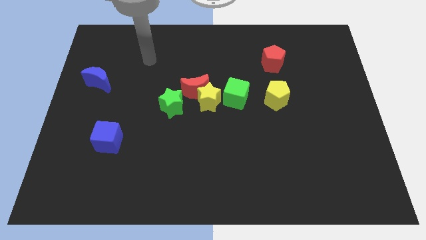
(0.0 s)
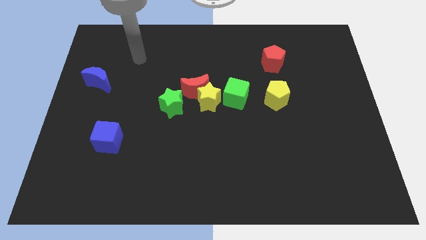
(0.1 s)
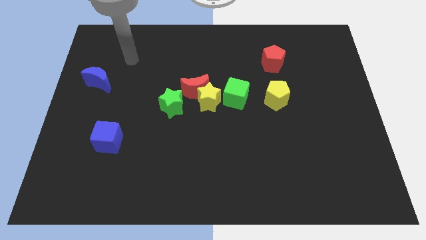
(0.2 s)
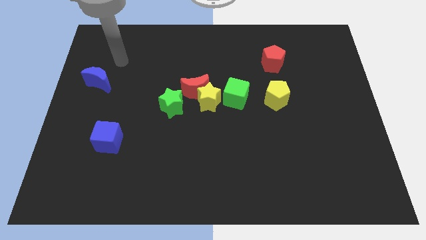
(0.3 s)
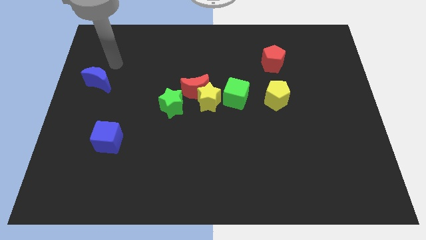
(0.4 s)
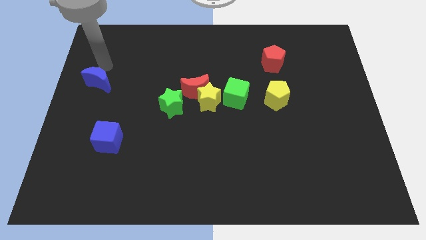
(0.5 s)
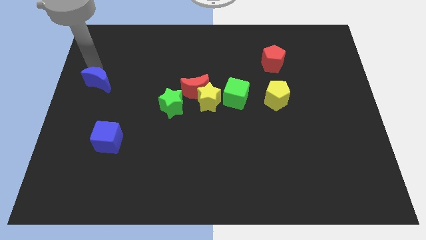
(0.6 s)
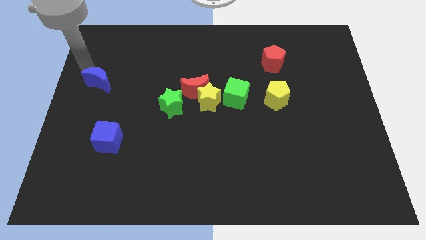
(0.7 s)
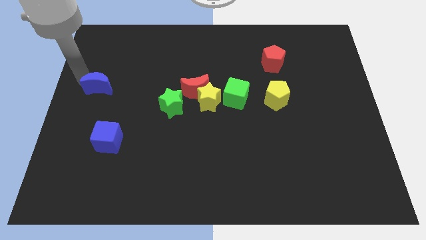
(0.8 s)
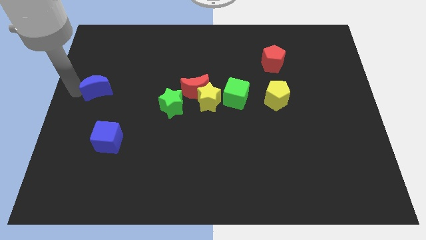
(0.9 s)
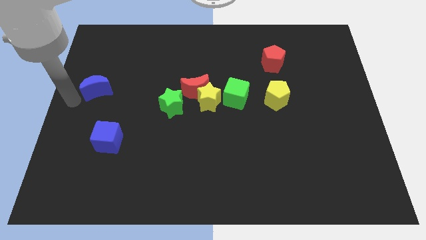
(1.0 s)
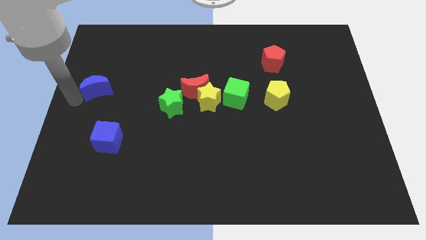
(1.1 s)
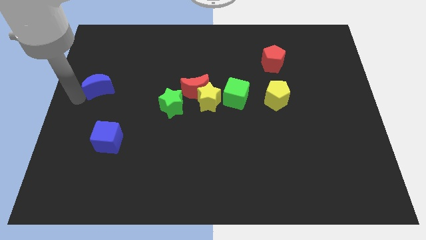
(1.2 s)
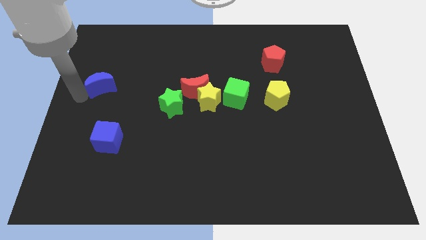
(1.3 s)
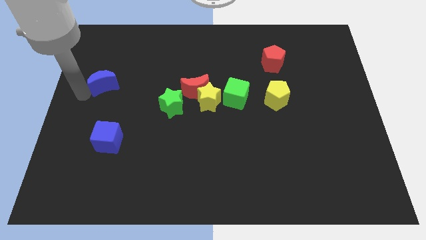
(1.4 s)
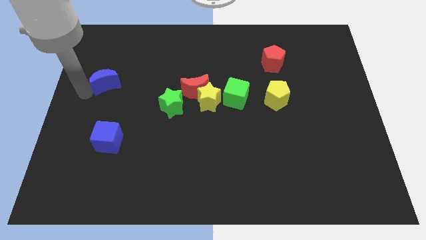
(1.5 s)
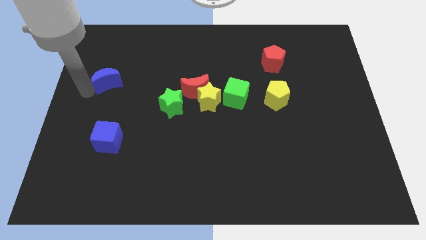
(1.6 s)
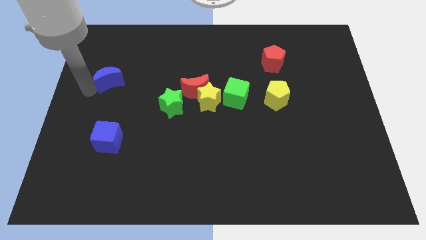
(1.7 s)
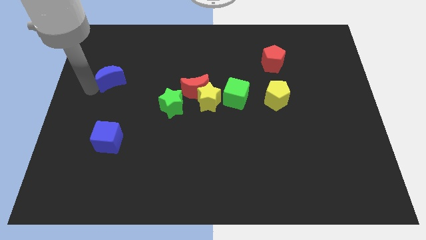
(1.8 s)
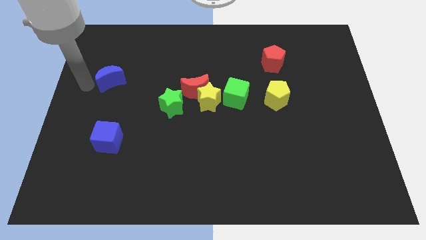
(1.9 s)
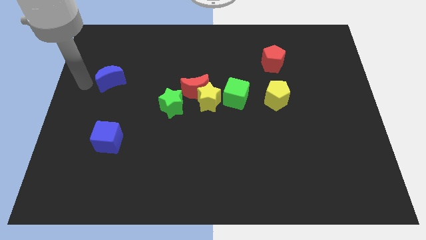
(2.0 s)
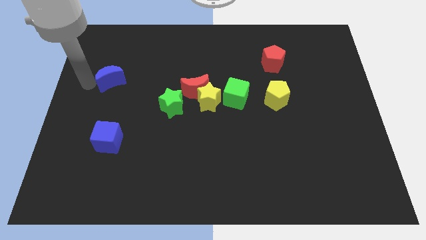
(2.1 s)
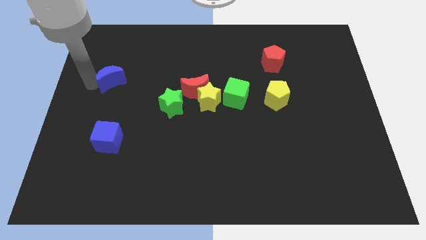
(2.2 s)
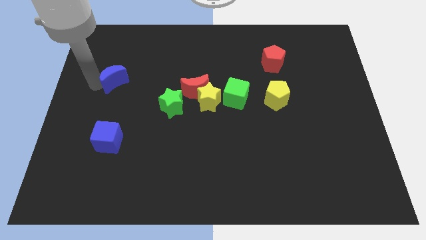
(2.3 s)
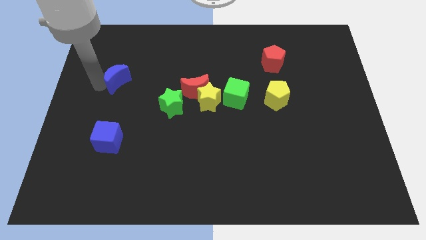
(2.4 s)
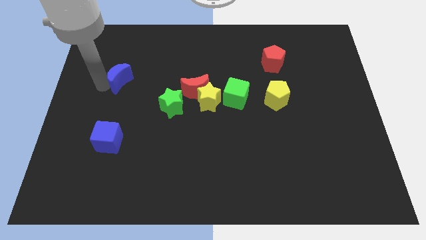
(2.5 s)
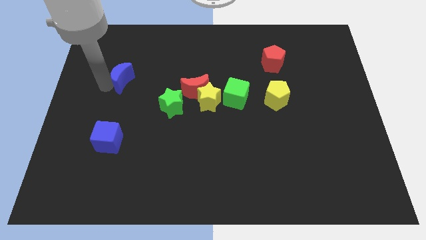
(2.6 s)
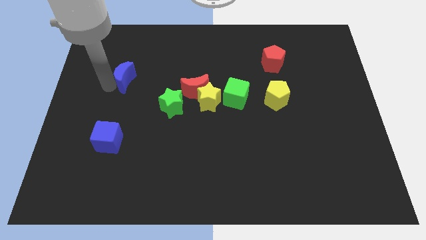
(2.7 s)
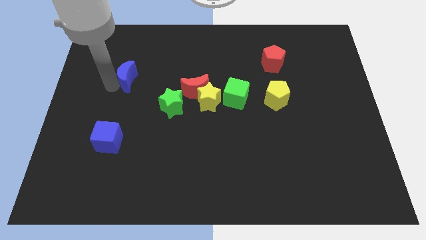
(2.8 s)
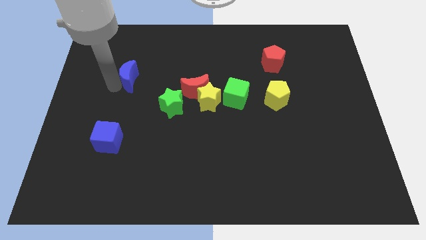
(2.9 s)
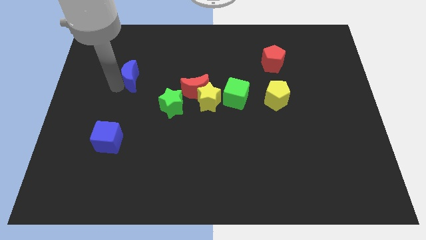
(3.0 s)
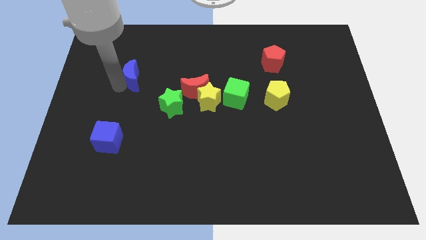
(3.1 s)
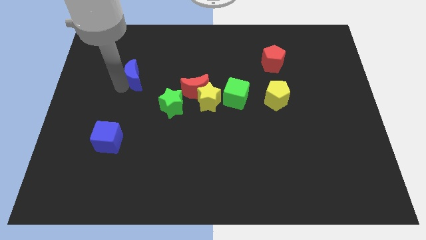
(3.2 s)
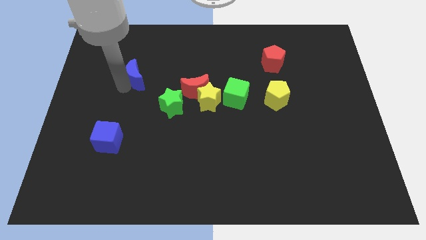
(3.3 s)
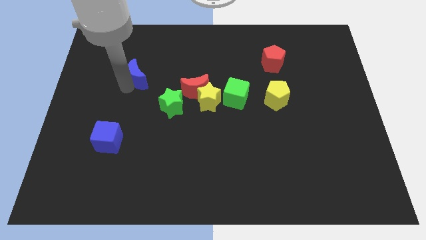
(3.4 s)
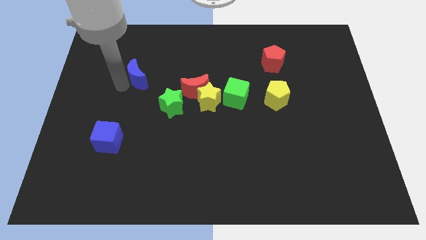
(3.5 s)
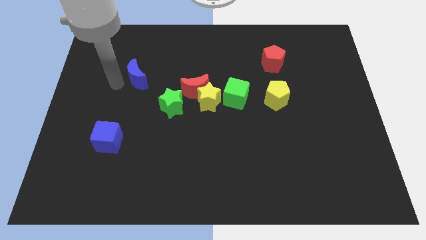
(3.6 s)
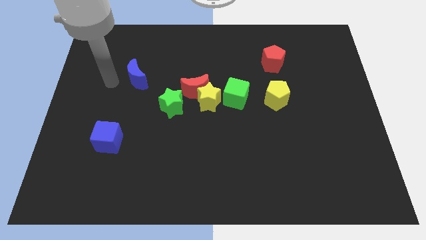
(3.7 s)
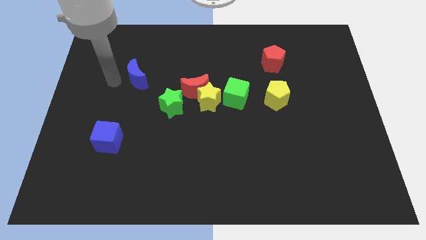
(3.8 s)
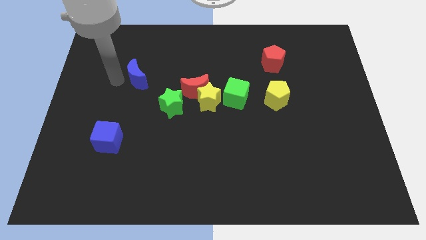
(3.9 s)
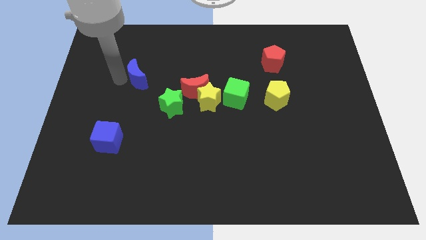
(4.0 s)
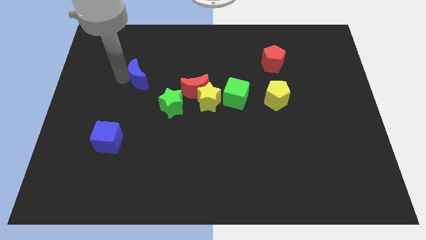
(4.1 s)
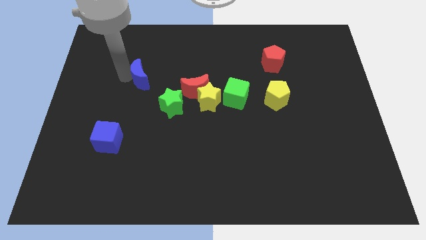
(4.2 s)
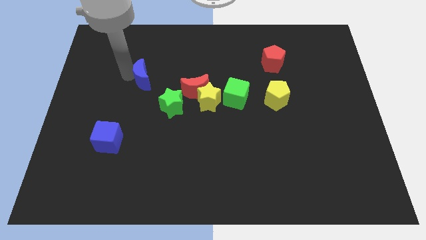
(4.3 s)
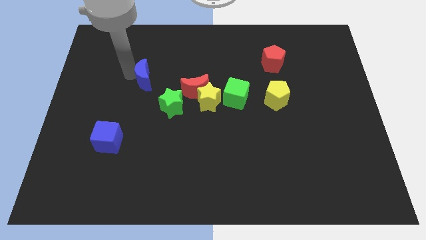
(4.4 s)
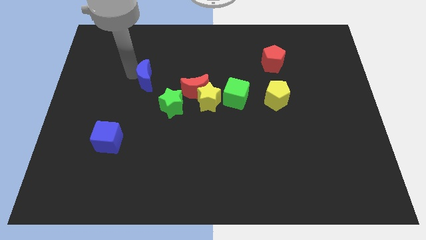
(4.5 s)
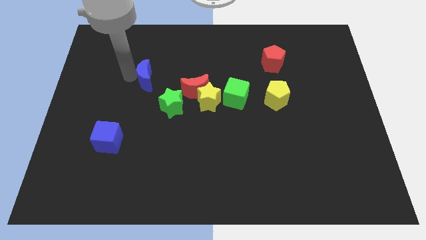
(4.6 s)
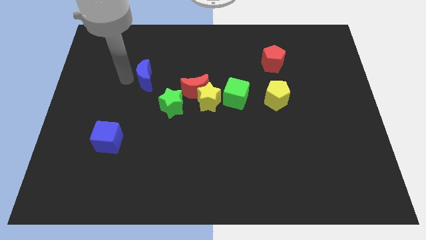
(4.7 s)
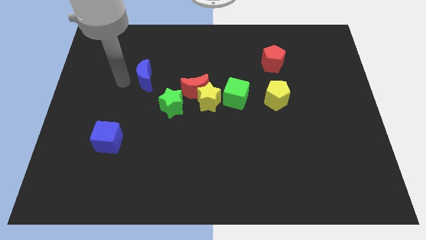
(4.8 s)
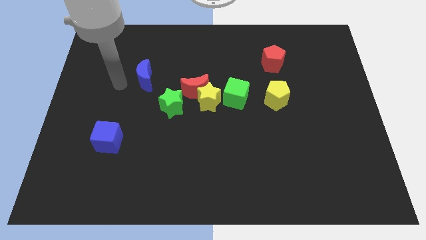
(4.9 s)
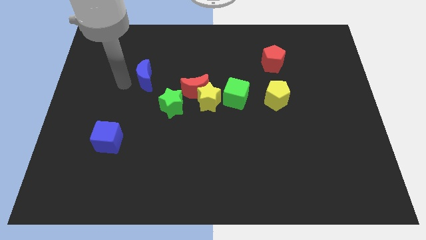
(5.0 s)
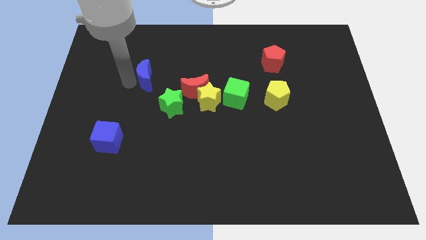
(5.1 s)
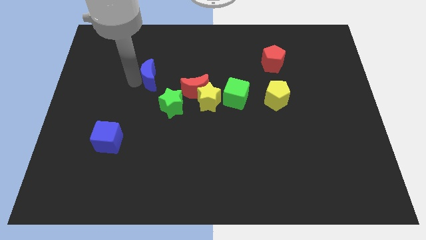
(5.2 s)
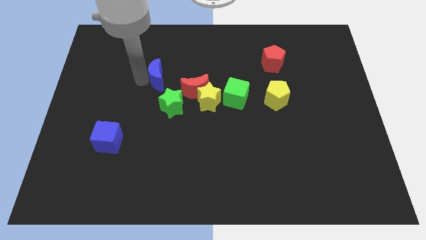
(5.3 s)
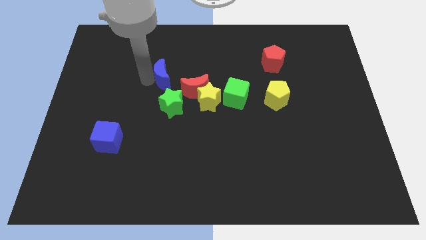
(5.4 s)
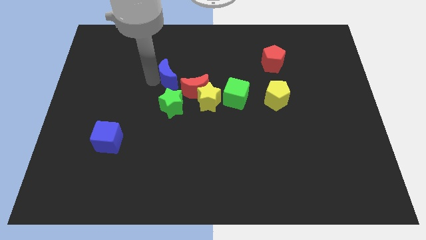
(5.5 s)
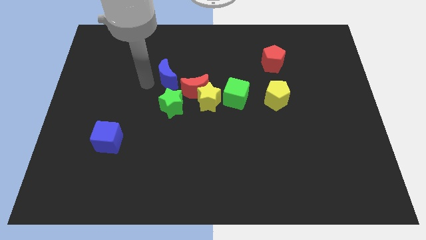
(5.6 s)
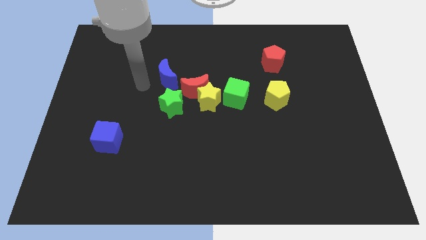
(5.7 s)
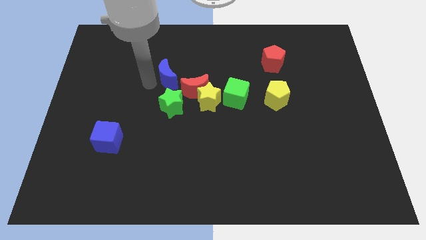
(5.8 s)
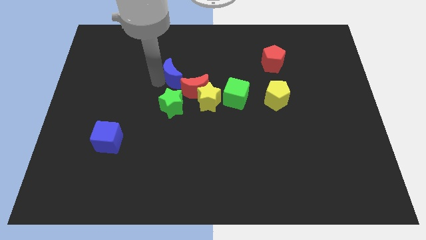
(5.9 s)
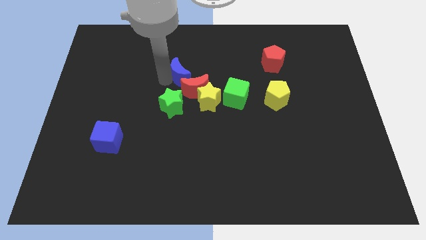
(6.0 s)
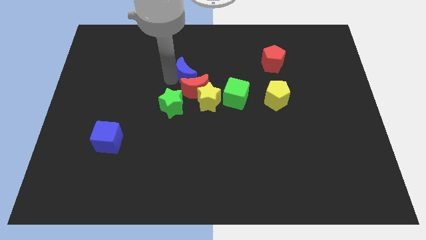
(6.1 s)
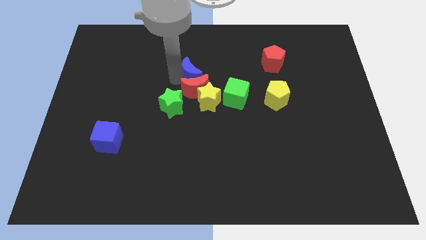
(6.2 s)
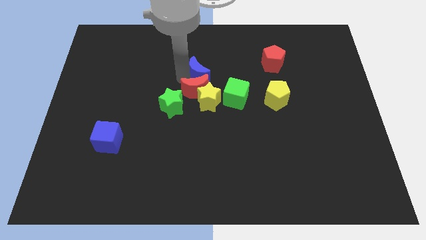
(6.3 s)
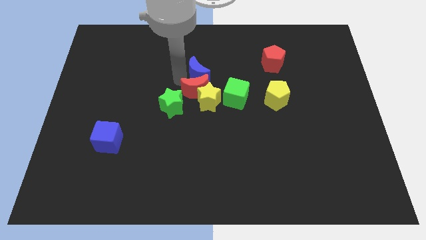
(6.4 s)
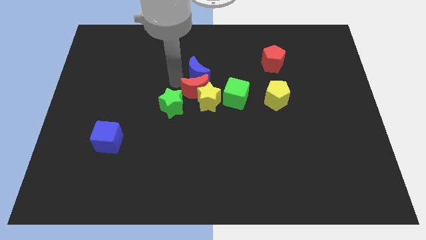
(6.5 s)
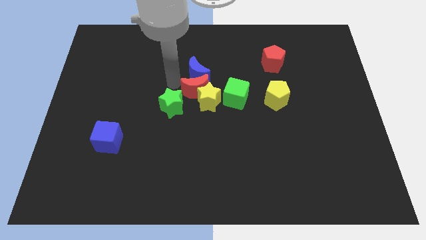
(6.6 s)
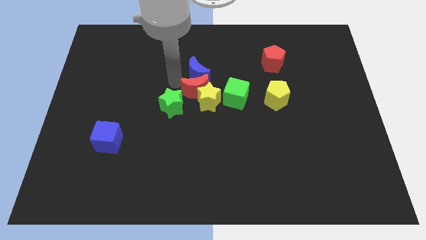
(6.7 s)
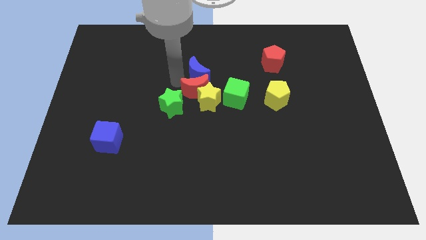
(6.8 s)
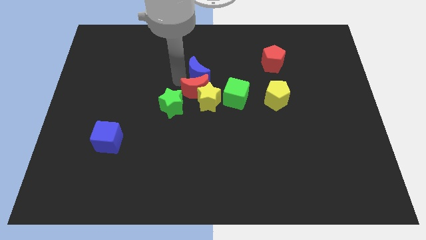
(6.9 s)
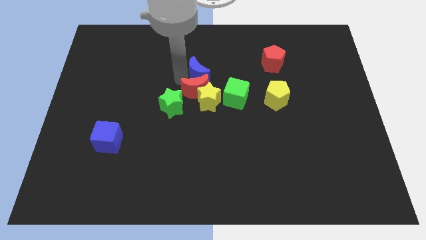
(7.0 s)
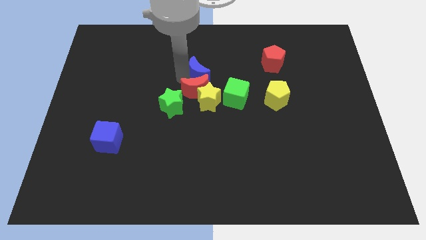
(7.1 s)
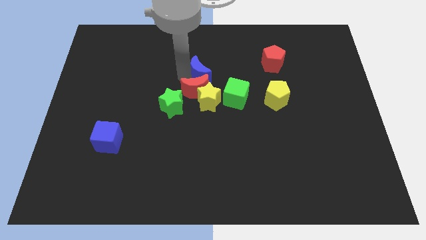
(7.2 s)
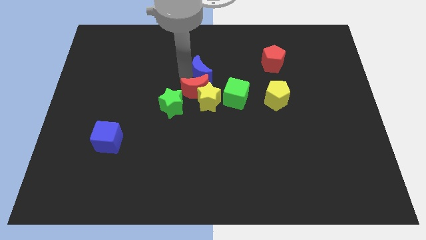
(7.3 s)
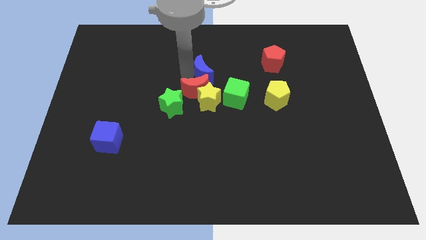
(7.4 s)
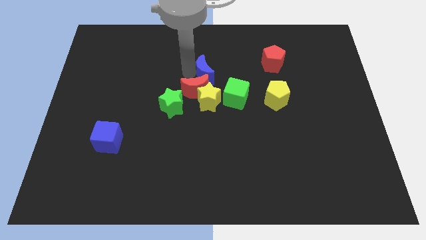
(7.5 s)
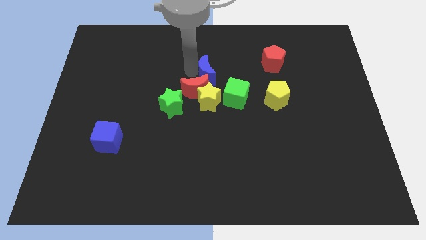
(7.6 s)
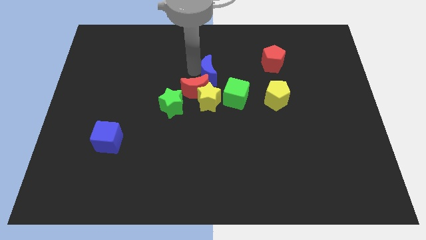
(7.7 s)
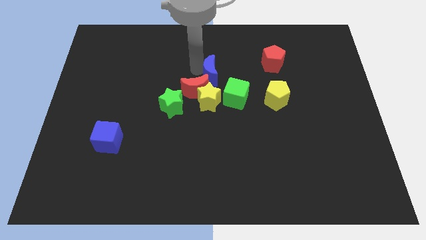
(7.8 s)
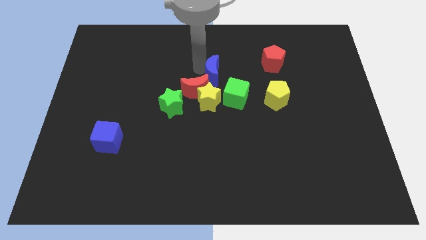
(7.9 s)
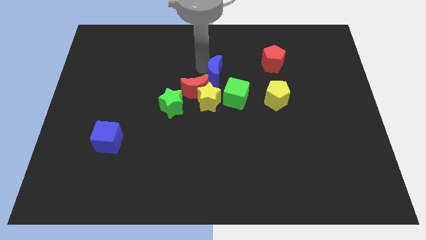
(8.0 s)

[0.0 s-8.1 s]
slide the blue moon to the top right side of the yellow star
